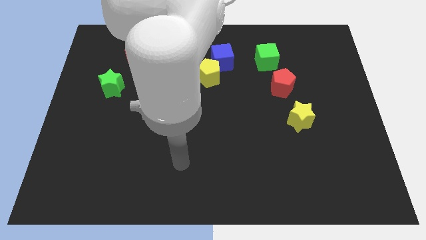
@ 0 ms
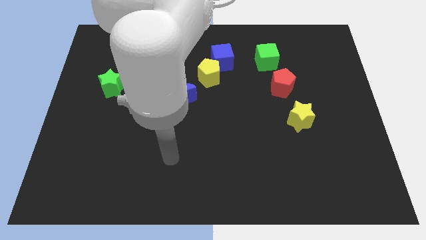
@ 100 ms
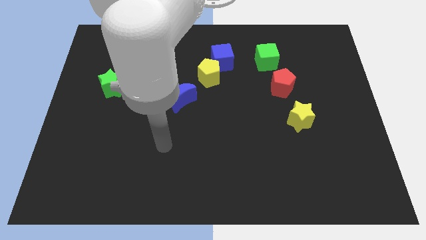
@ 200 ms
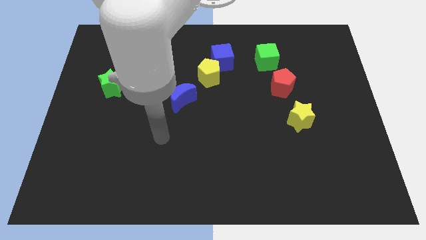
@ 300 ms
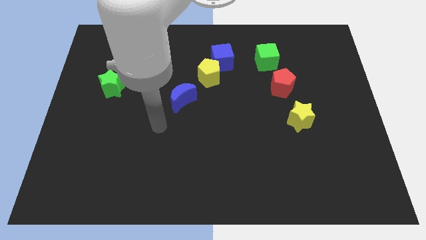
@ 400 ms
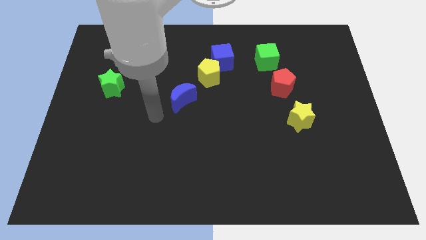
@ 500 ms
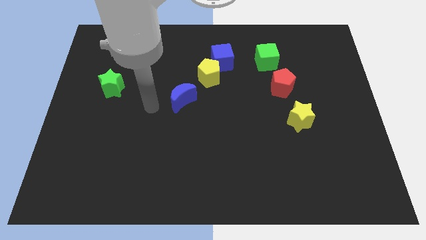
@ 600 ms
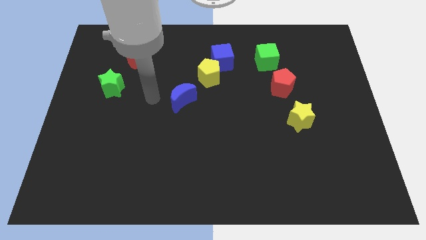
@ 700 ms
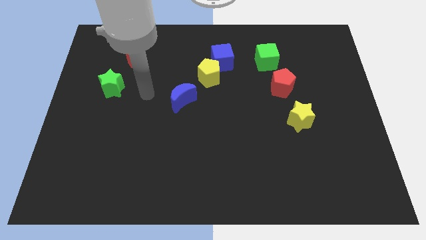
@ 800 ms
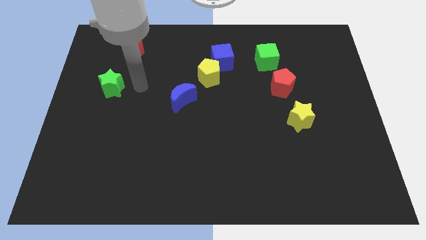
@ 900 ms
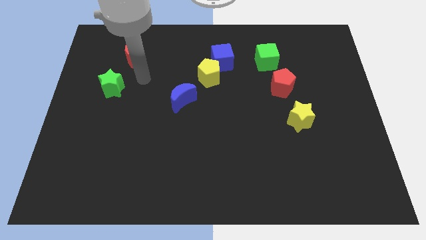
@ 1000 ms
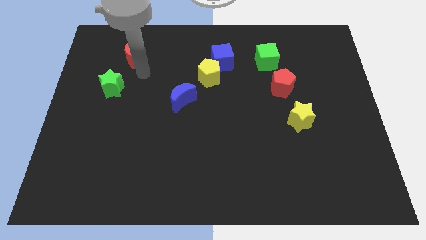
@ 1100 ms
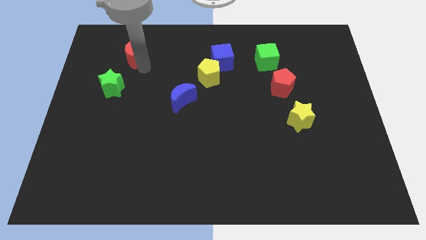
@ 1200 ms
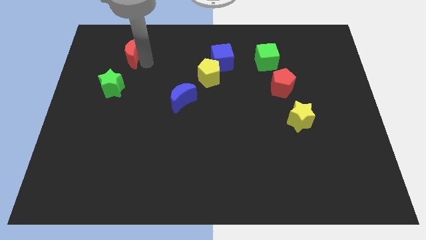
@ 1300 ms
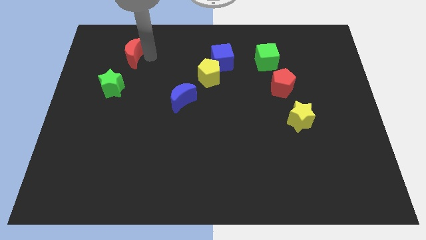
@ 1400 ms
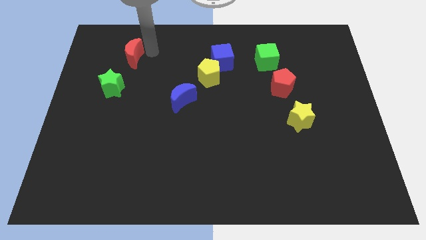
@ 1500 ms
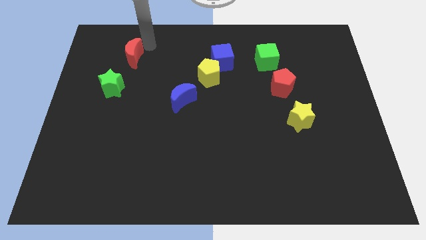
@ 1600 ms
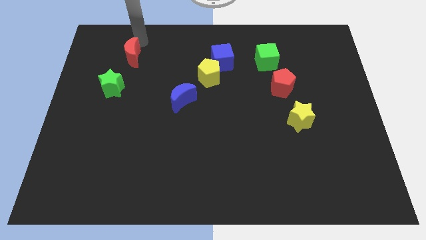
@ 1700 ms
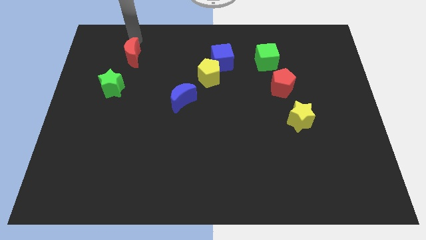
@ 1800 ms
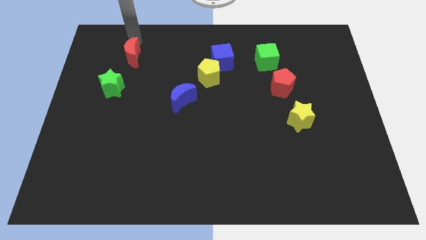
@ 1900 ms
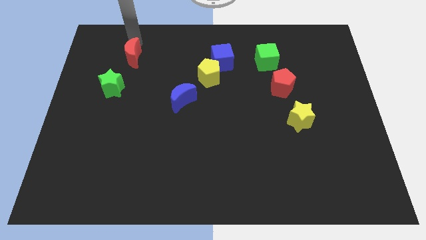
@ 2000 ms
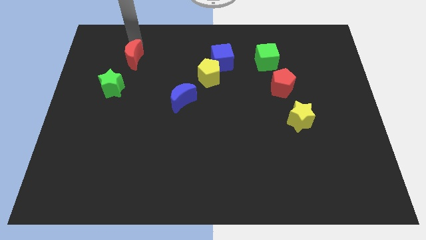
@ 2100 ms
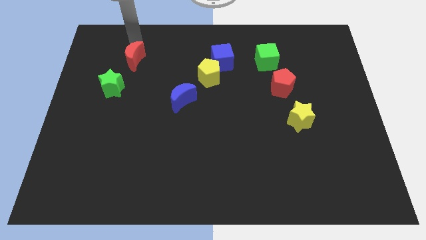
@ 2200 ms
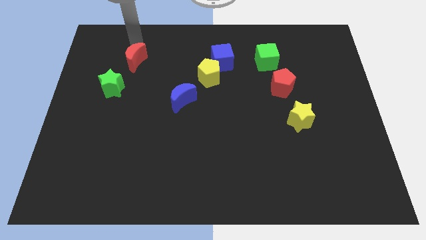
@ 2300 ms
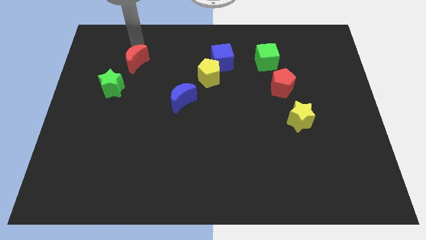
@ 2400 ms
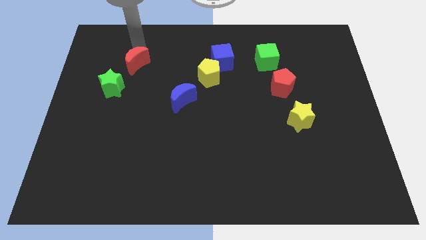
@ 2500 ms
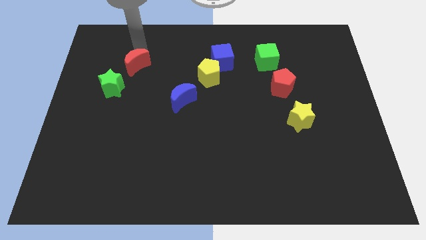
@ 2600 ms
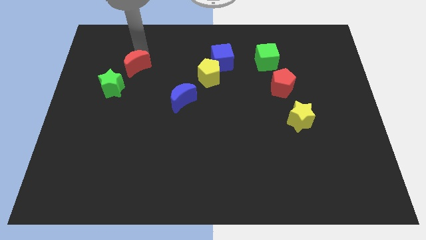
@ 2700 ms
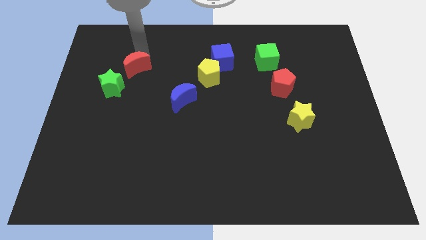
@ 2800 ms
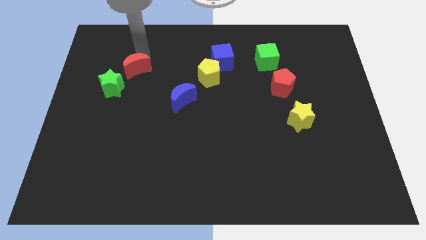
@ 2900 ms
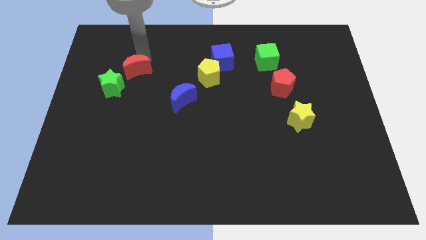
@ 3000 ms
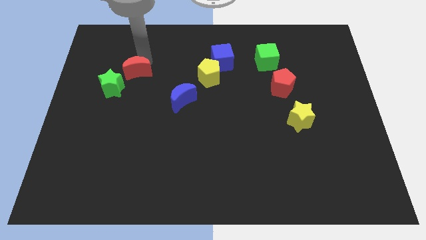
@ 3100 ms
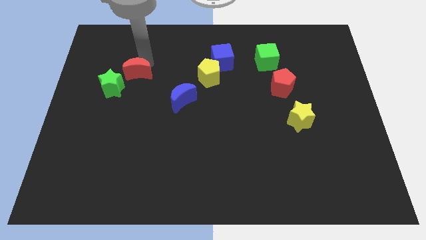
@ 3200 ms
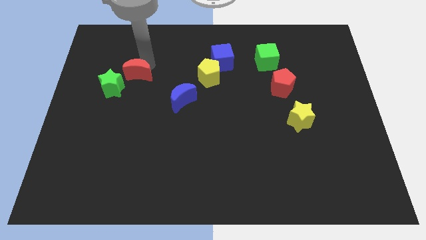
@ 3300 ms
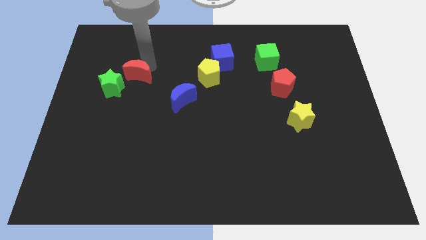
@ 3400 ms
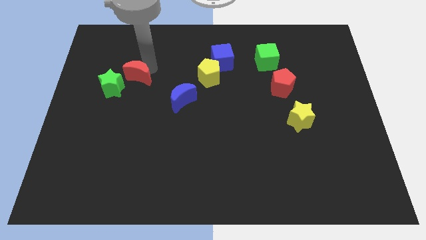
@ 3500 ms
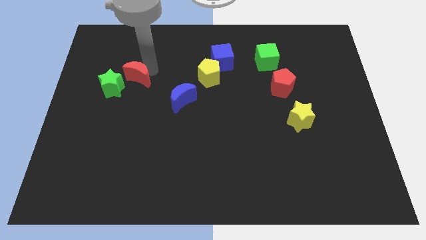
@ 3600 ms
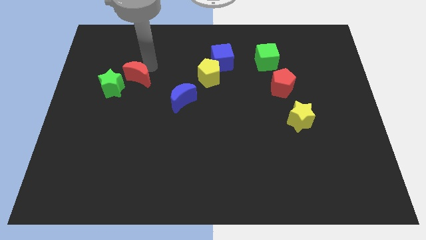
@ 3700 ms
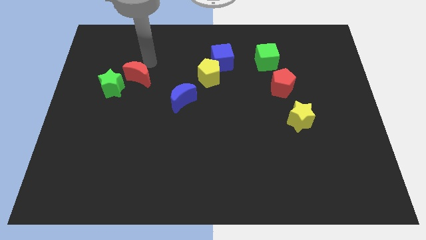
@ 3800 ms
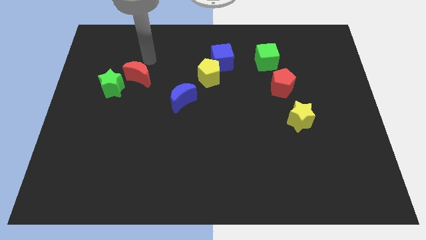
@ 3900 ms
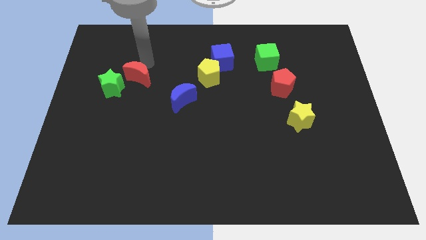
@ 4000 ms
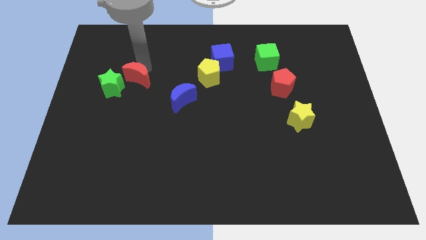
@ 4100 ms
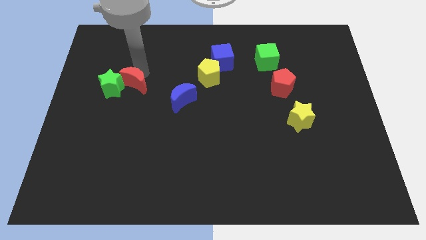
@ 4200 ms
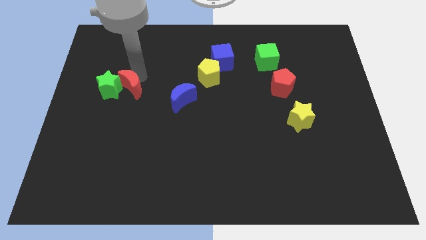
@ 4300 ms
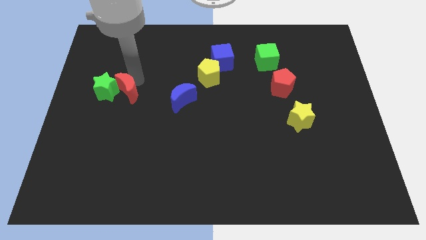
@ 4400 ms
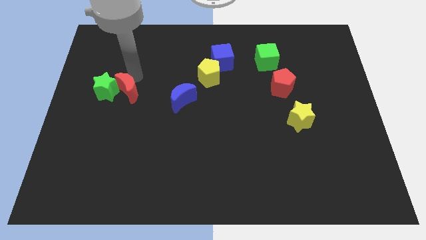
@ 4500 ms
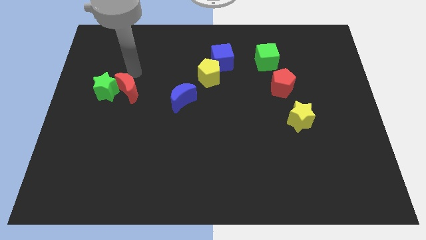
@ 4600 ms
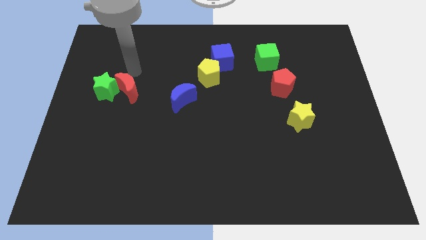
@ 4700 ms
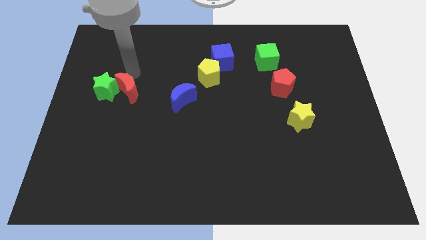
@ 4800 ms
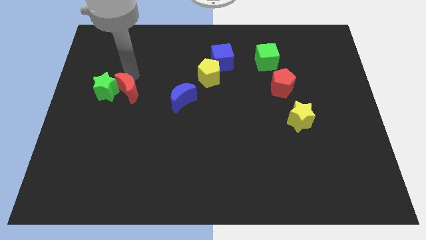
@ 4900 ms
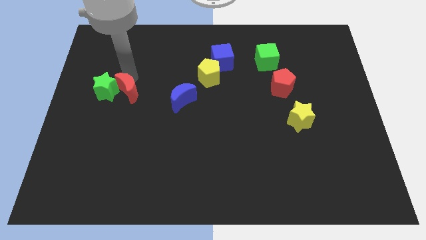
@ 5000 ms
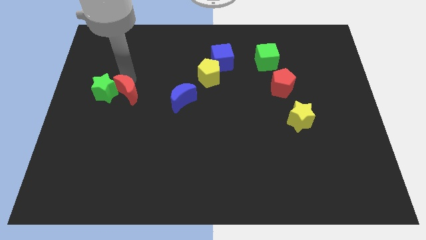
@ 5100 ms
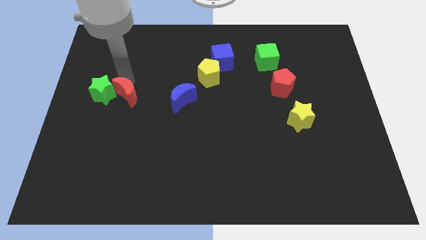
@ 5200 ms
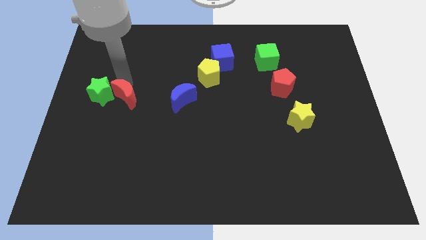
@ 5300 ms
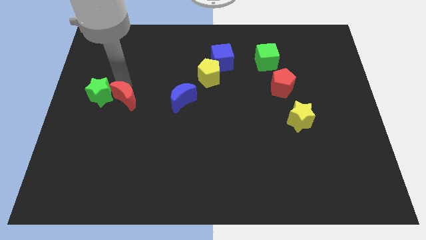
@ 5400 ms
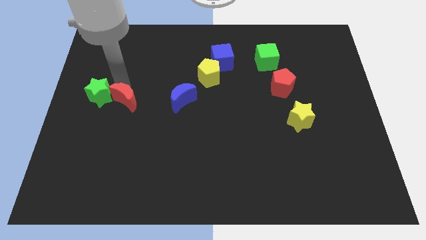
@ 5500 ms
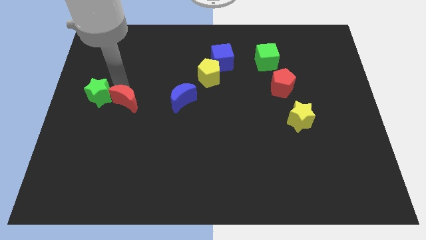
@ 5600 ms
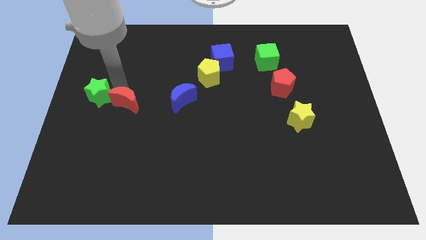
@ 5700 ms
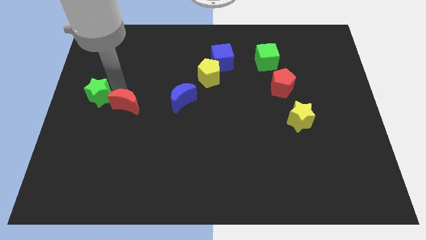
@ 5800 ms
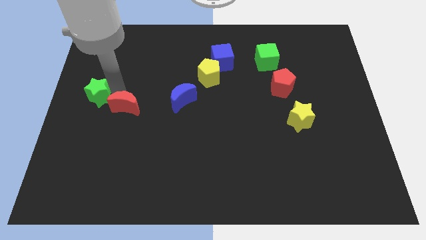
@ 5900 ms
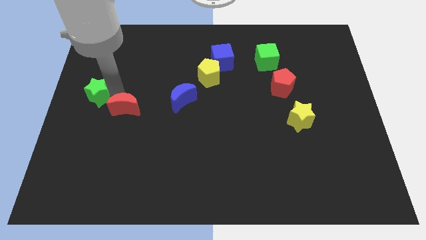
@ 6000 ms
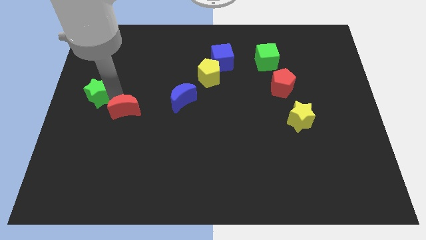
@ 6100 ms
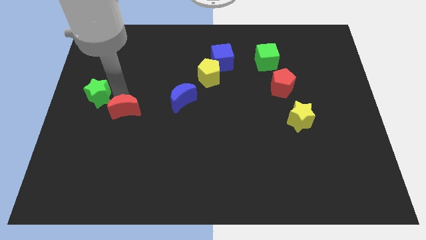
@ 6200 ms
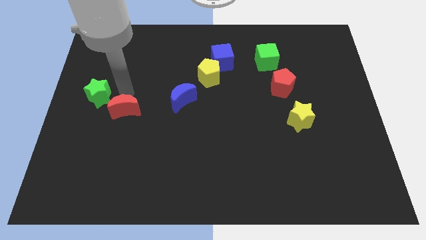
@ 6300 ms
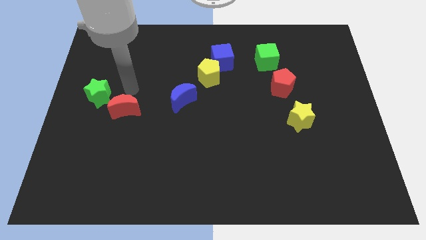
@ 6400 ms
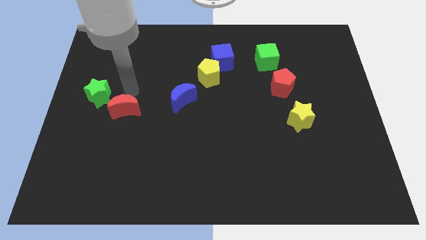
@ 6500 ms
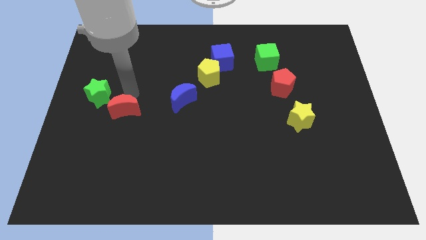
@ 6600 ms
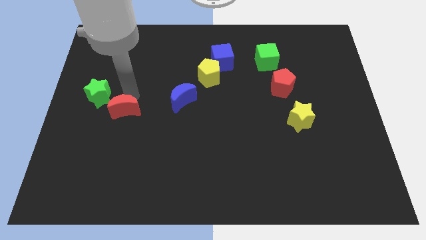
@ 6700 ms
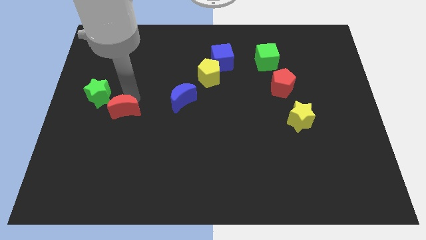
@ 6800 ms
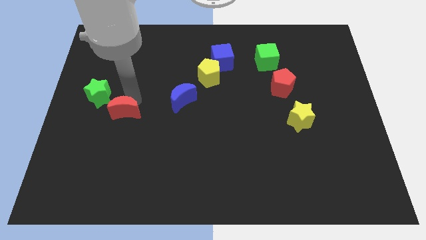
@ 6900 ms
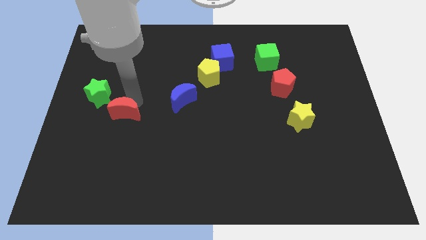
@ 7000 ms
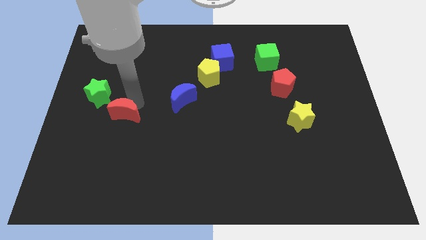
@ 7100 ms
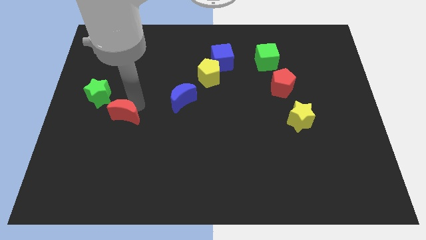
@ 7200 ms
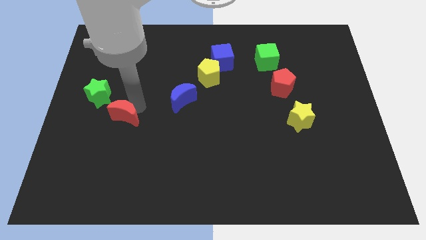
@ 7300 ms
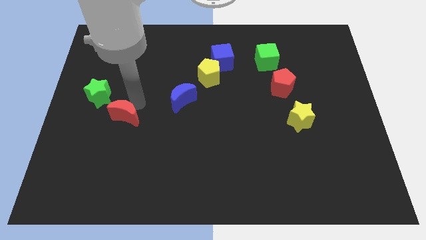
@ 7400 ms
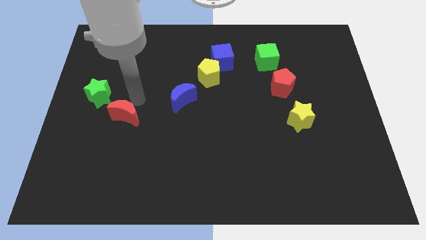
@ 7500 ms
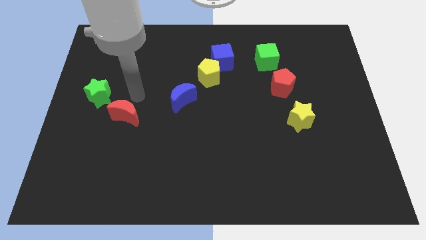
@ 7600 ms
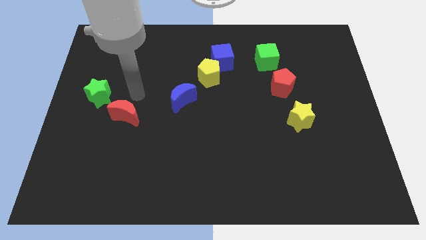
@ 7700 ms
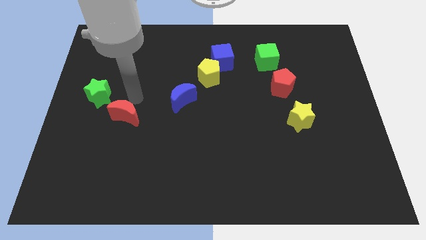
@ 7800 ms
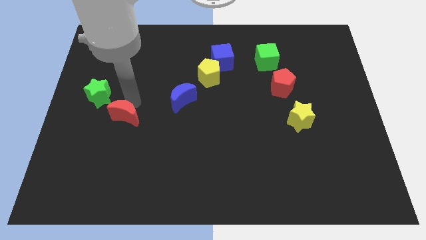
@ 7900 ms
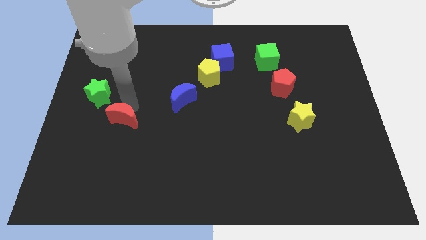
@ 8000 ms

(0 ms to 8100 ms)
slide the red moon down

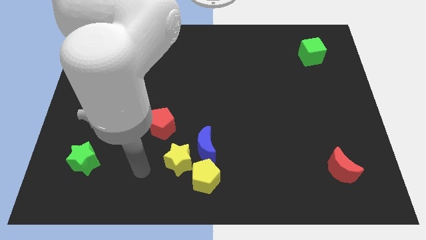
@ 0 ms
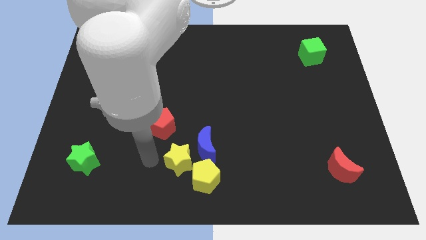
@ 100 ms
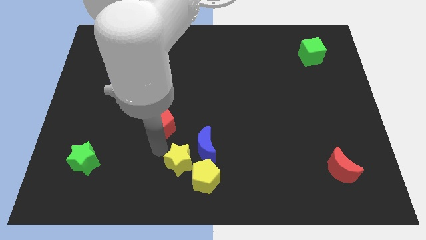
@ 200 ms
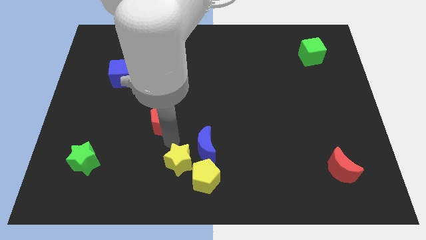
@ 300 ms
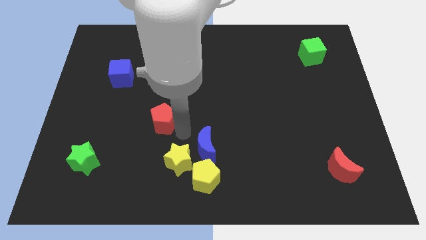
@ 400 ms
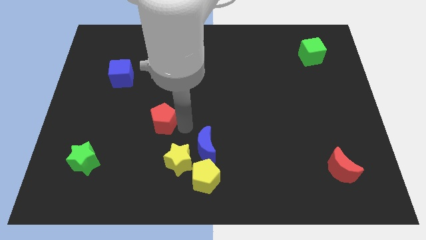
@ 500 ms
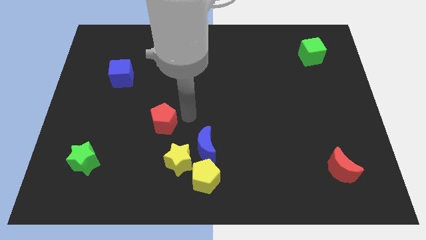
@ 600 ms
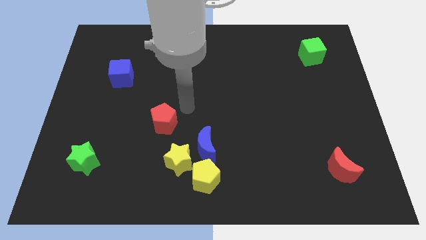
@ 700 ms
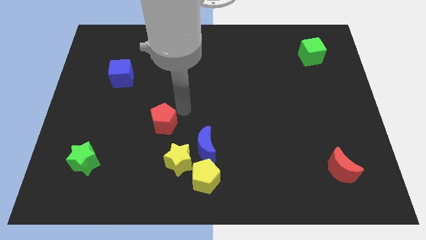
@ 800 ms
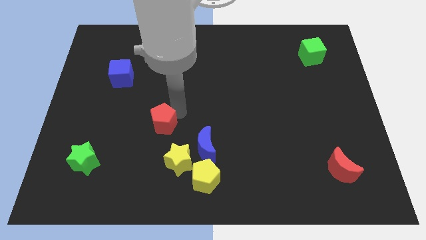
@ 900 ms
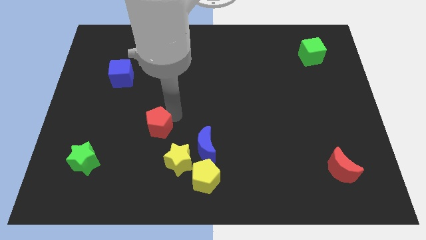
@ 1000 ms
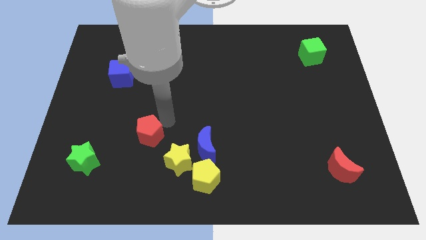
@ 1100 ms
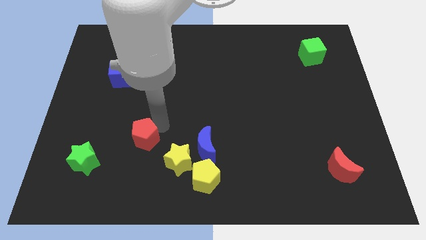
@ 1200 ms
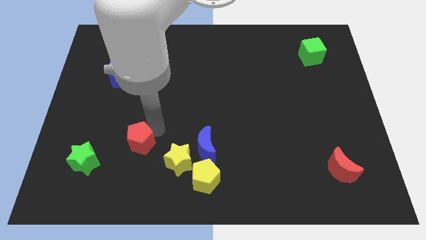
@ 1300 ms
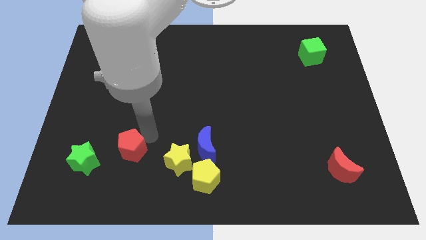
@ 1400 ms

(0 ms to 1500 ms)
slide the red pentagon downwards and to the left slightly
